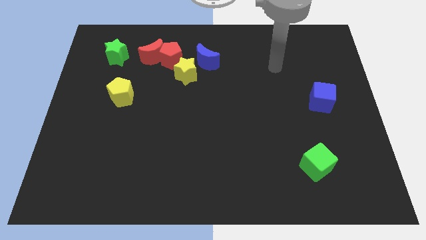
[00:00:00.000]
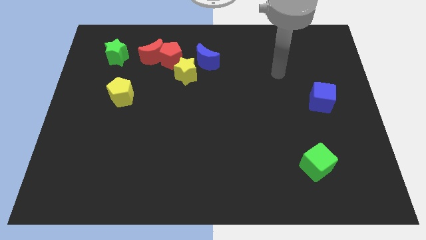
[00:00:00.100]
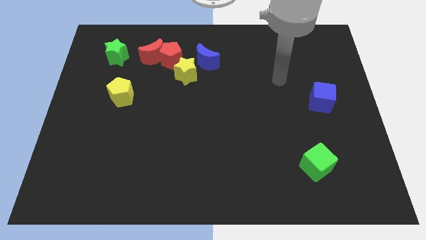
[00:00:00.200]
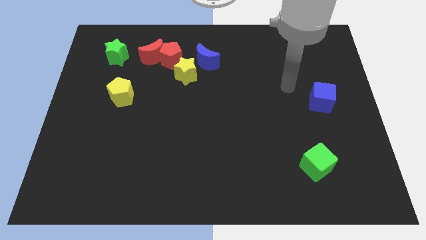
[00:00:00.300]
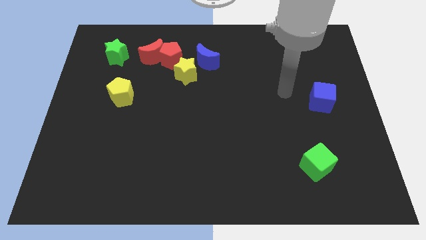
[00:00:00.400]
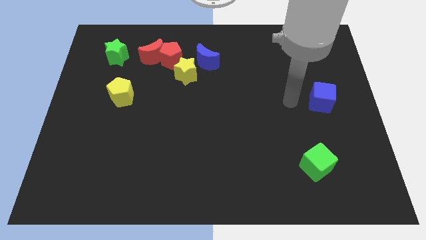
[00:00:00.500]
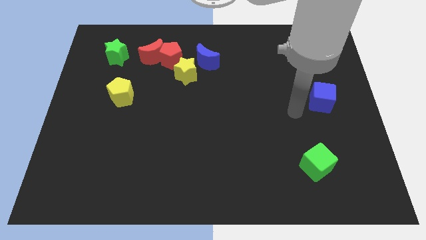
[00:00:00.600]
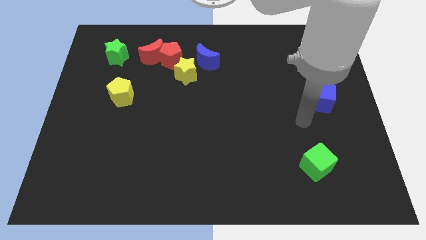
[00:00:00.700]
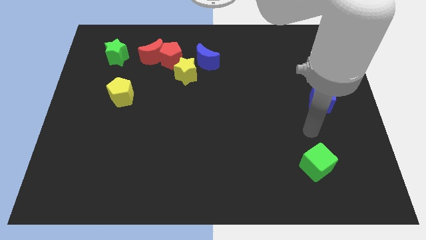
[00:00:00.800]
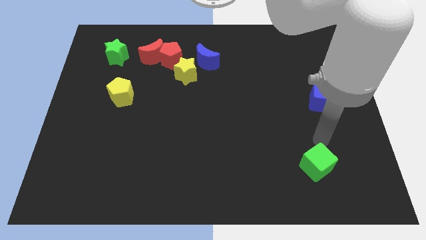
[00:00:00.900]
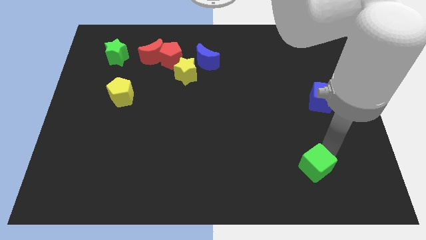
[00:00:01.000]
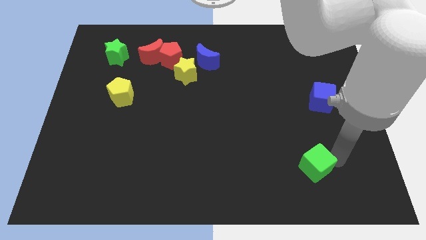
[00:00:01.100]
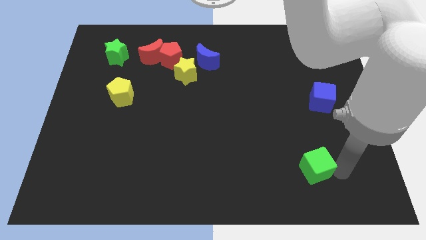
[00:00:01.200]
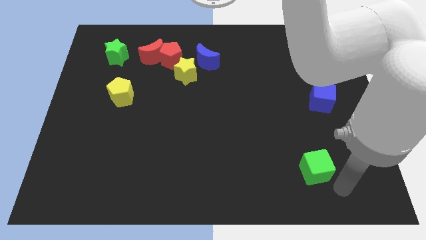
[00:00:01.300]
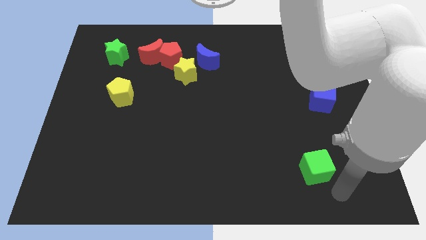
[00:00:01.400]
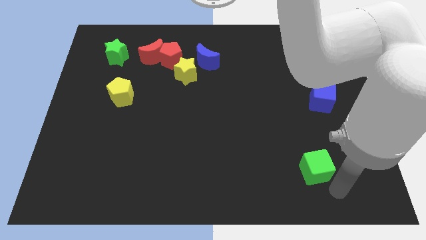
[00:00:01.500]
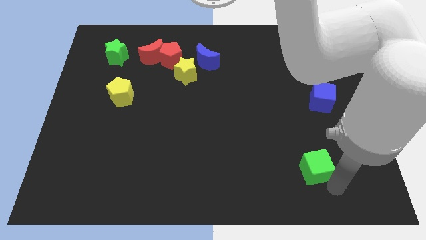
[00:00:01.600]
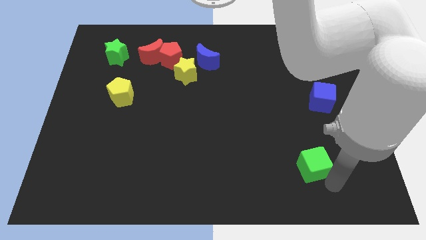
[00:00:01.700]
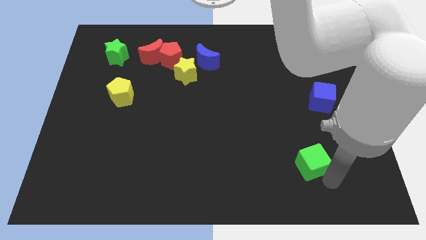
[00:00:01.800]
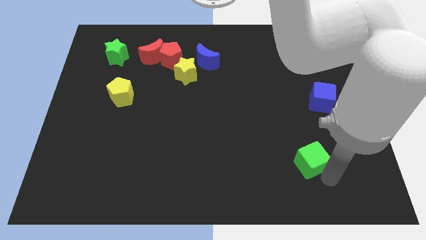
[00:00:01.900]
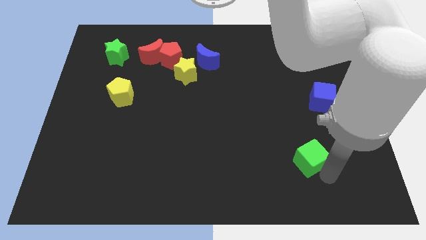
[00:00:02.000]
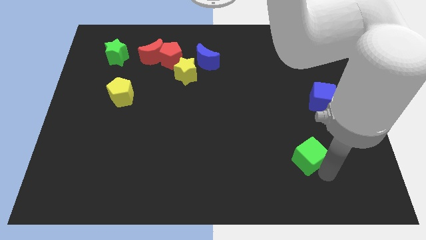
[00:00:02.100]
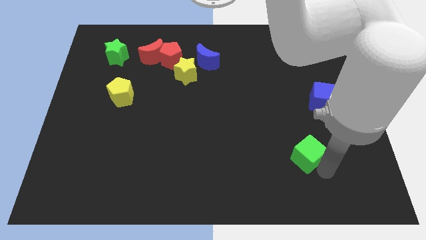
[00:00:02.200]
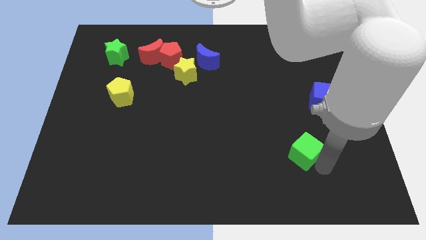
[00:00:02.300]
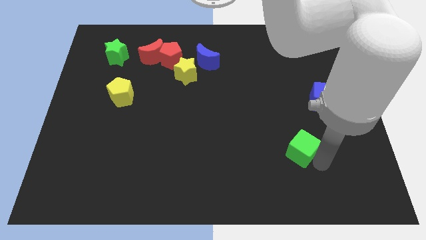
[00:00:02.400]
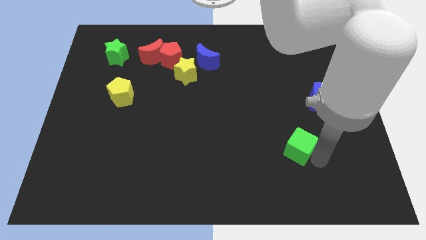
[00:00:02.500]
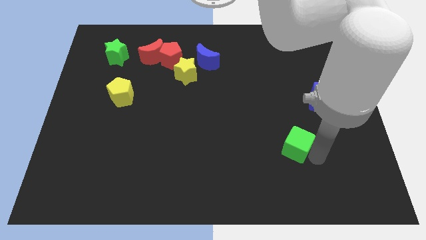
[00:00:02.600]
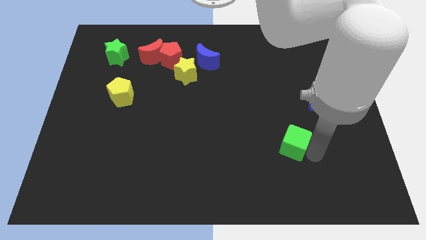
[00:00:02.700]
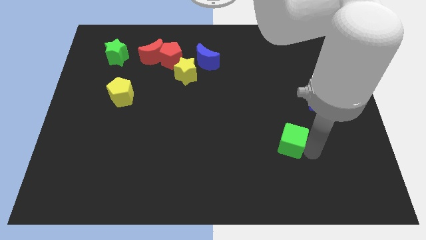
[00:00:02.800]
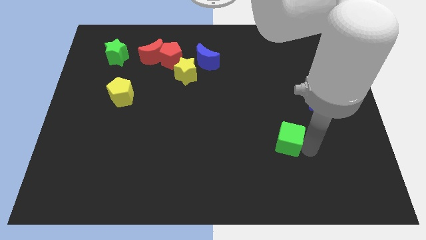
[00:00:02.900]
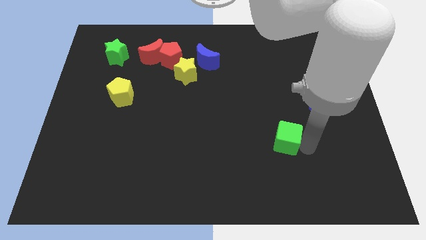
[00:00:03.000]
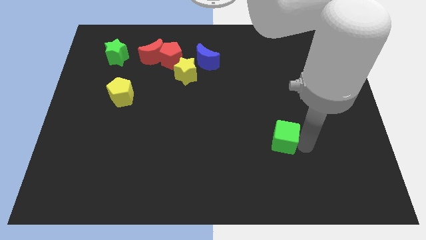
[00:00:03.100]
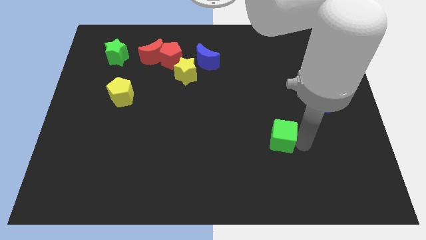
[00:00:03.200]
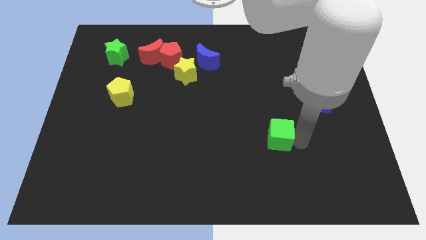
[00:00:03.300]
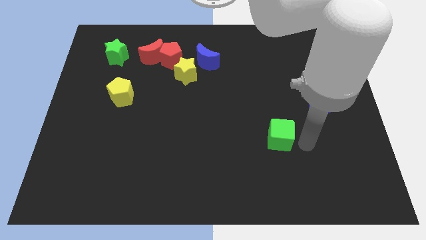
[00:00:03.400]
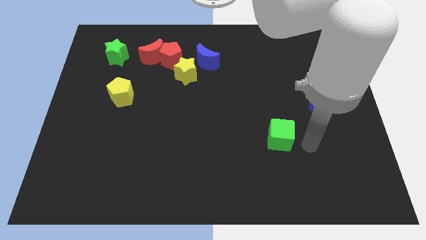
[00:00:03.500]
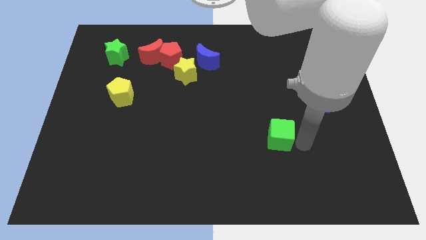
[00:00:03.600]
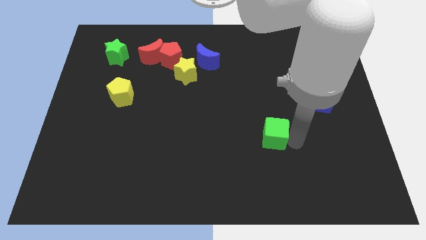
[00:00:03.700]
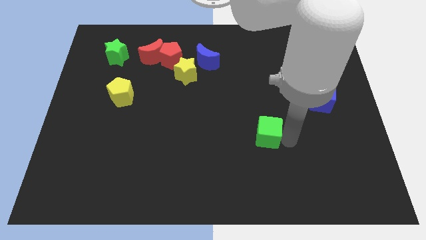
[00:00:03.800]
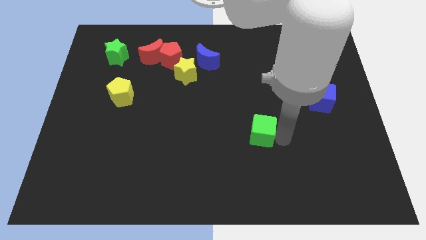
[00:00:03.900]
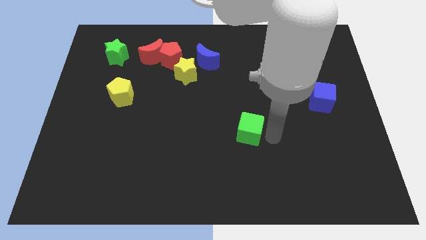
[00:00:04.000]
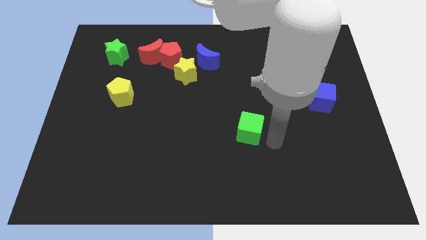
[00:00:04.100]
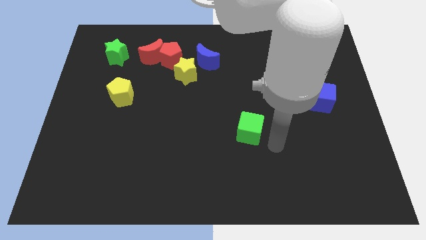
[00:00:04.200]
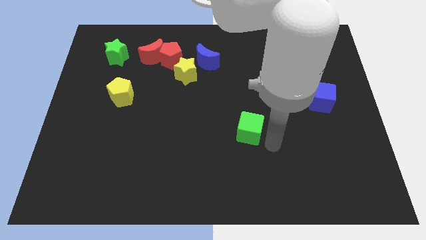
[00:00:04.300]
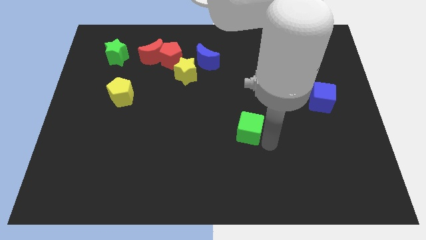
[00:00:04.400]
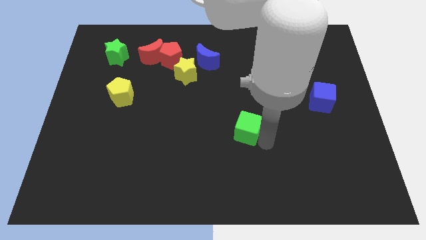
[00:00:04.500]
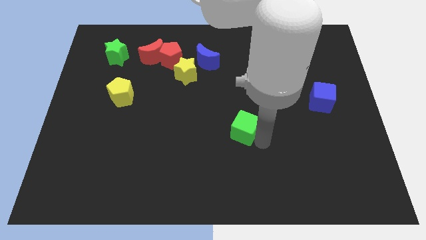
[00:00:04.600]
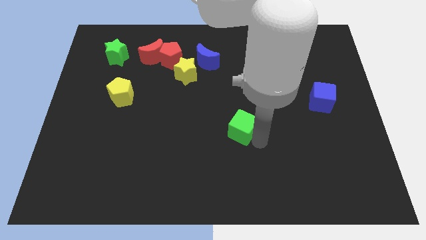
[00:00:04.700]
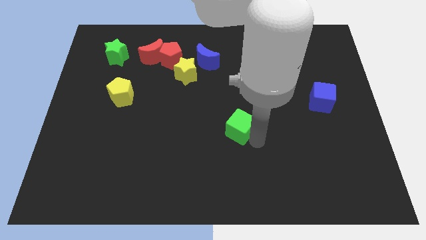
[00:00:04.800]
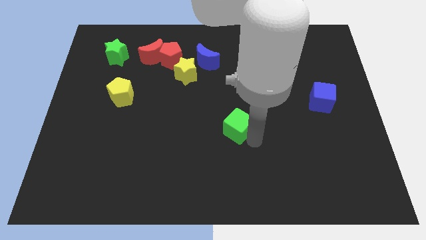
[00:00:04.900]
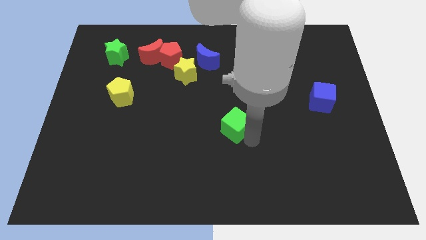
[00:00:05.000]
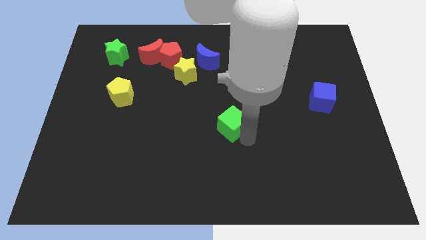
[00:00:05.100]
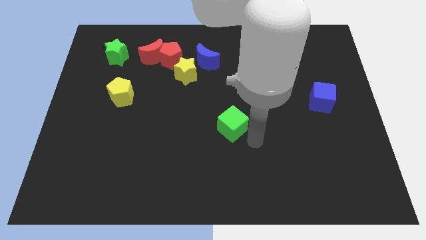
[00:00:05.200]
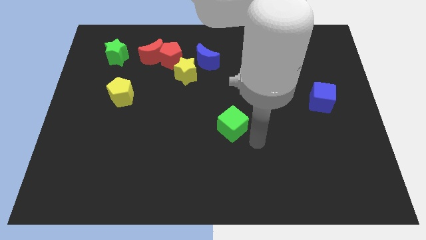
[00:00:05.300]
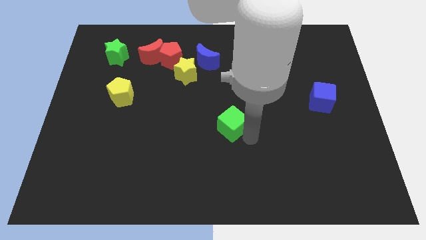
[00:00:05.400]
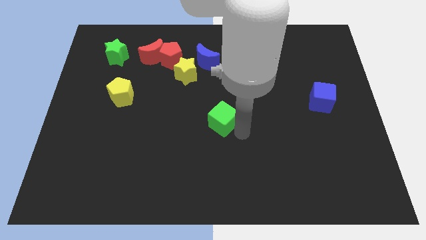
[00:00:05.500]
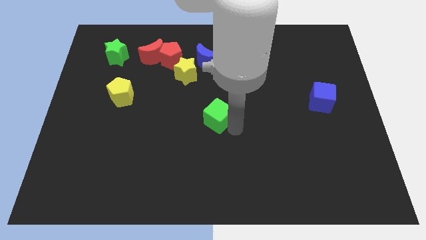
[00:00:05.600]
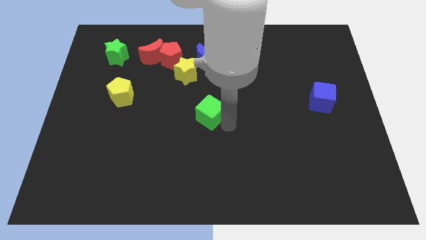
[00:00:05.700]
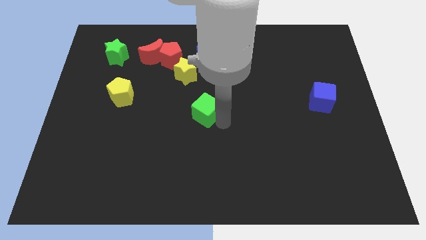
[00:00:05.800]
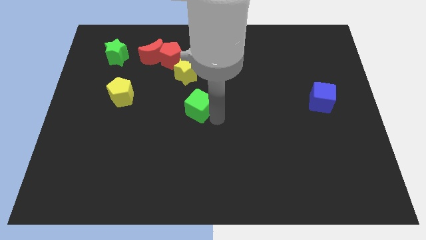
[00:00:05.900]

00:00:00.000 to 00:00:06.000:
put the green cube to the bottom side of the yellow star

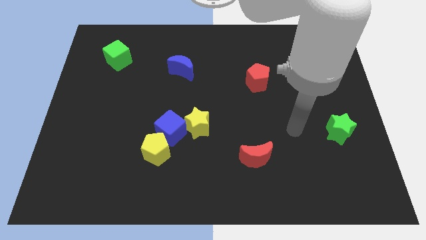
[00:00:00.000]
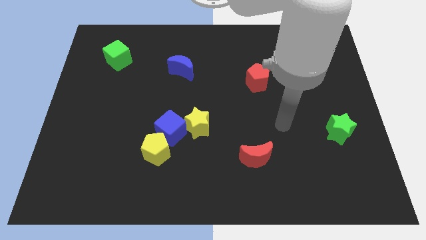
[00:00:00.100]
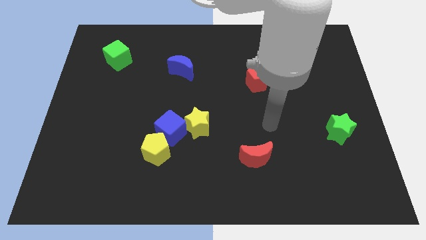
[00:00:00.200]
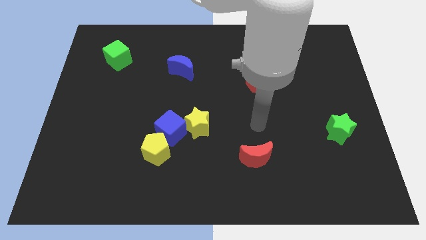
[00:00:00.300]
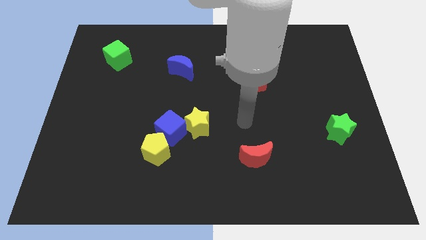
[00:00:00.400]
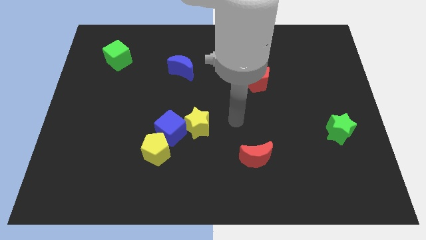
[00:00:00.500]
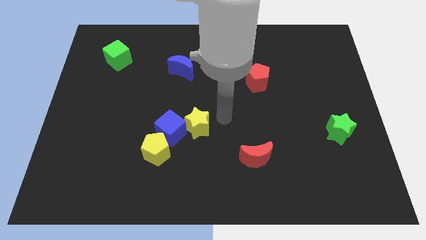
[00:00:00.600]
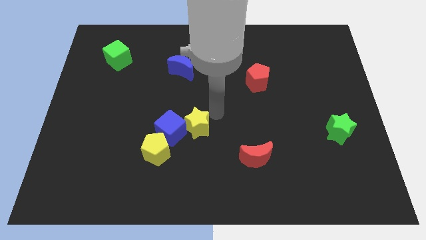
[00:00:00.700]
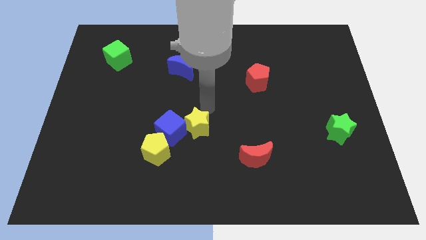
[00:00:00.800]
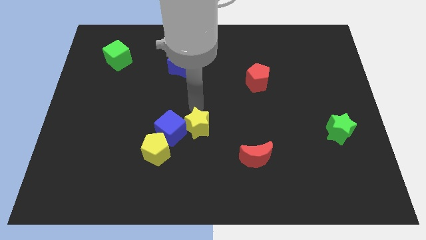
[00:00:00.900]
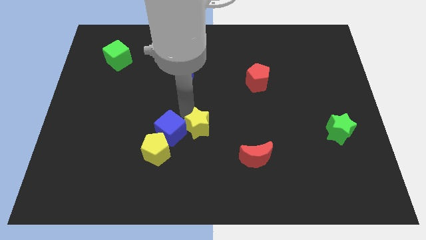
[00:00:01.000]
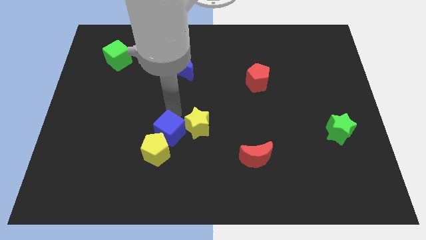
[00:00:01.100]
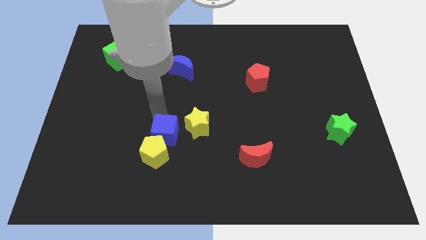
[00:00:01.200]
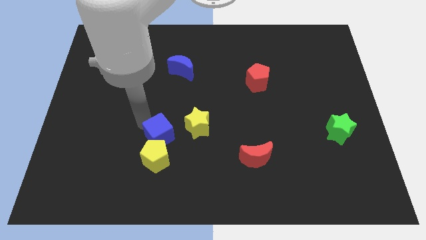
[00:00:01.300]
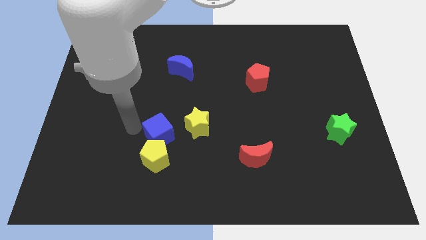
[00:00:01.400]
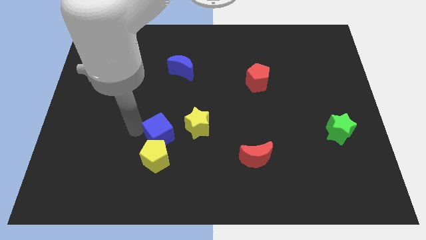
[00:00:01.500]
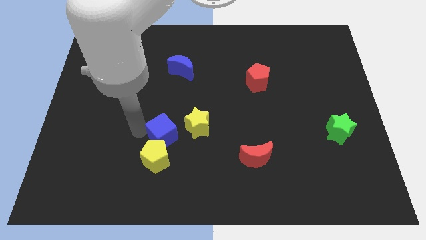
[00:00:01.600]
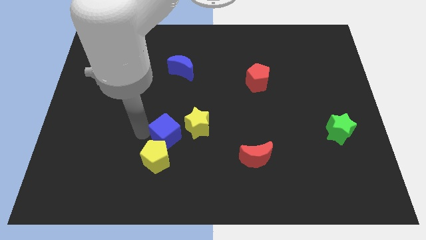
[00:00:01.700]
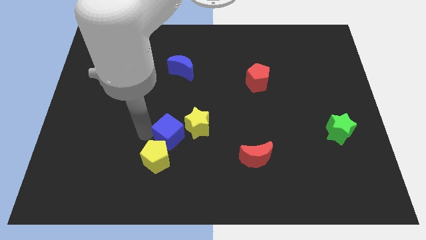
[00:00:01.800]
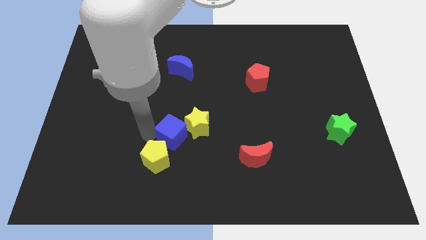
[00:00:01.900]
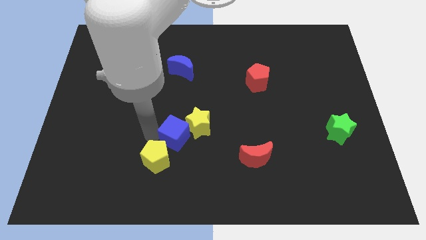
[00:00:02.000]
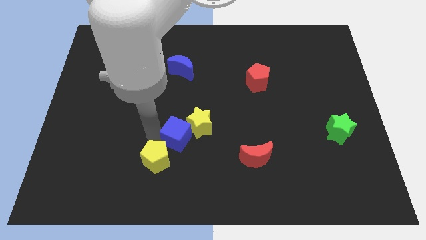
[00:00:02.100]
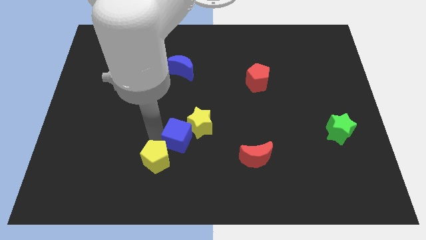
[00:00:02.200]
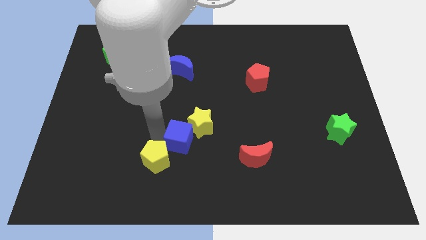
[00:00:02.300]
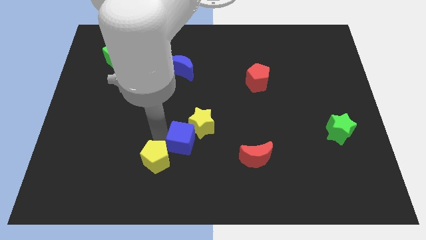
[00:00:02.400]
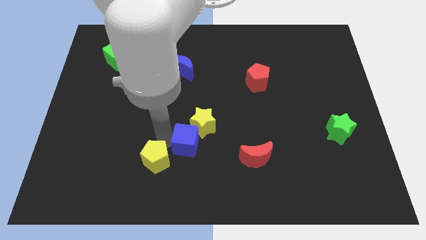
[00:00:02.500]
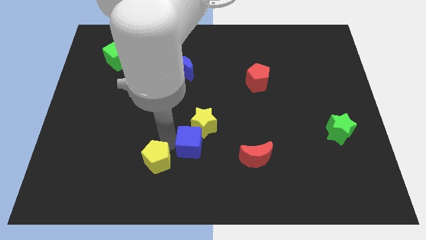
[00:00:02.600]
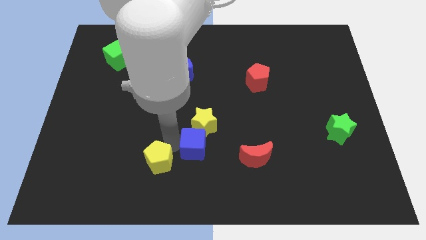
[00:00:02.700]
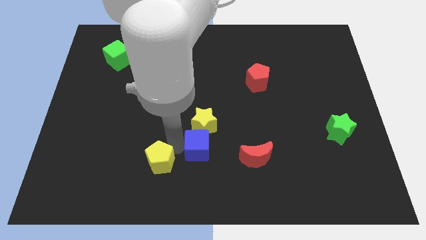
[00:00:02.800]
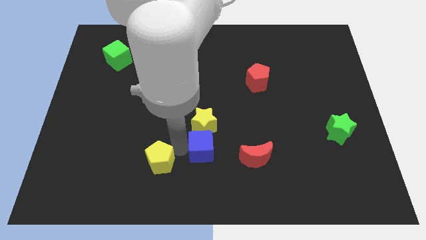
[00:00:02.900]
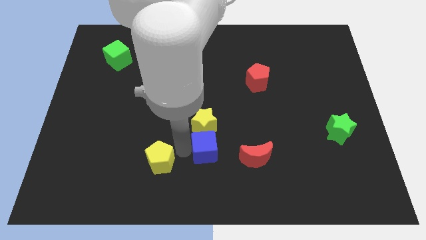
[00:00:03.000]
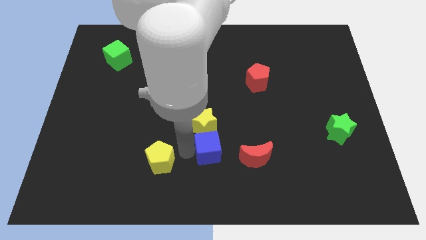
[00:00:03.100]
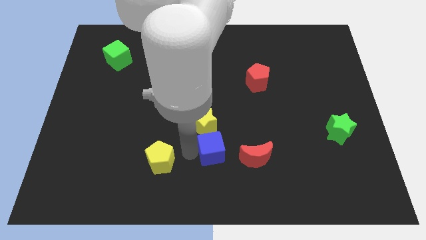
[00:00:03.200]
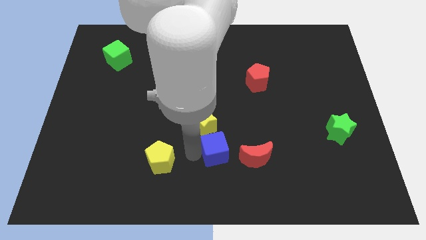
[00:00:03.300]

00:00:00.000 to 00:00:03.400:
put the blue cube to the top left side of the red moon
